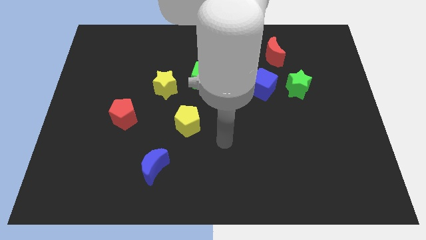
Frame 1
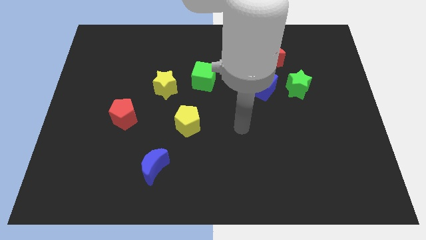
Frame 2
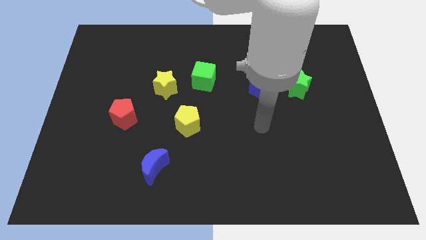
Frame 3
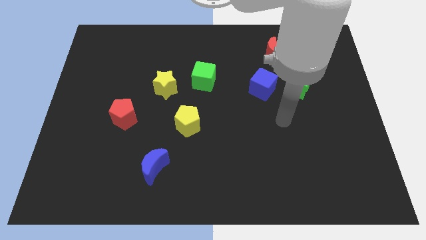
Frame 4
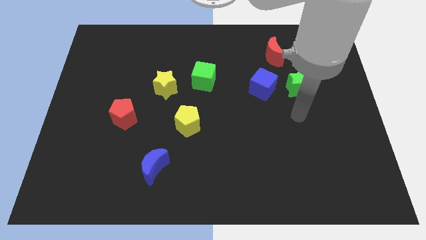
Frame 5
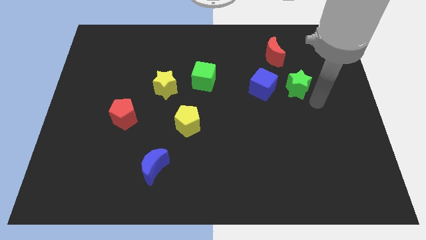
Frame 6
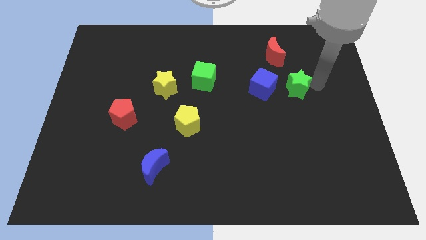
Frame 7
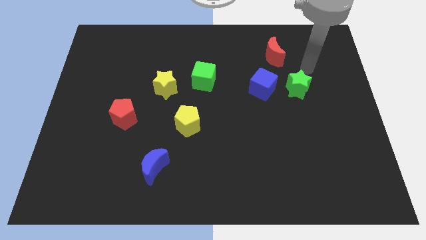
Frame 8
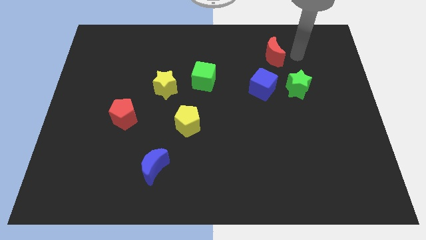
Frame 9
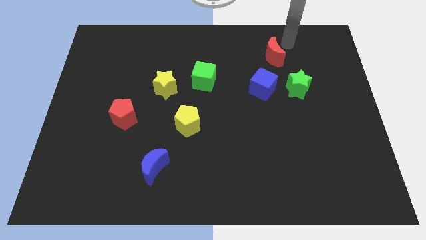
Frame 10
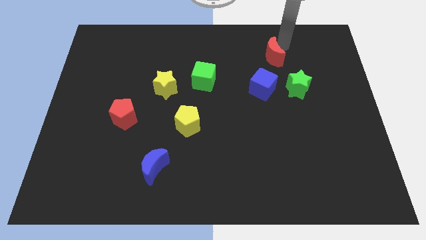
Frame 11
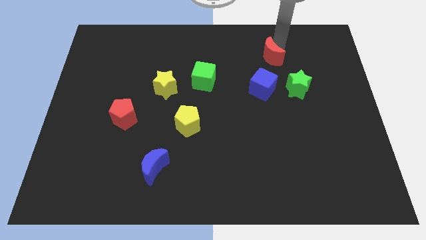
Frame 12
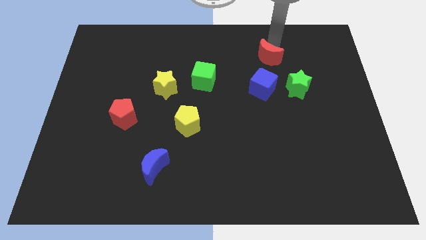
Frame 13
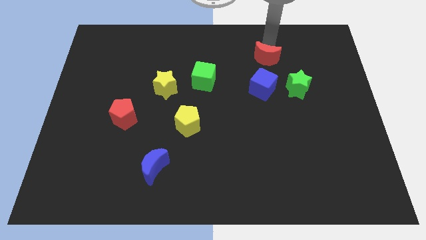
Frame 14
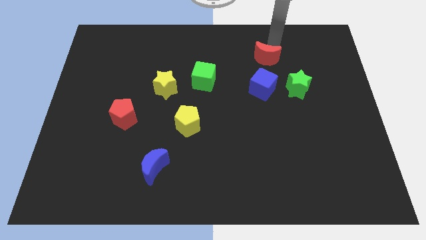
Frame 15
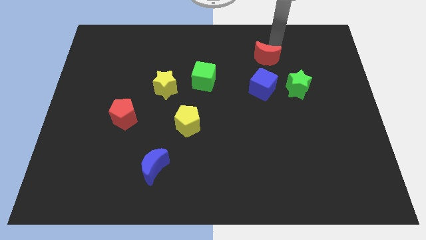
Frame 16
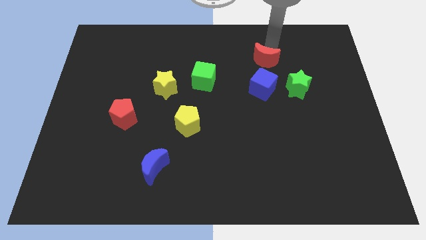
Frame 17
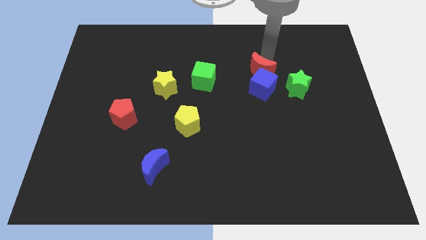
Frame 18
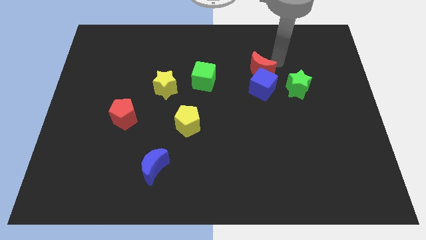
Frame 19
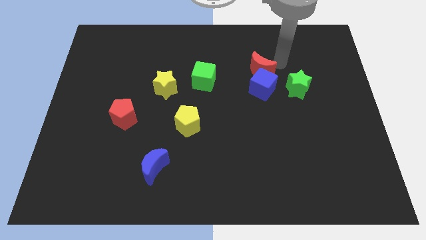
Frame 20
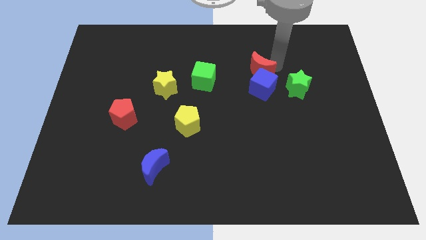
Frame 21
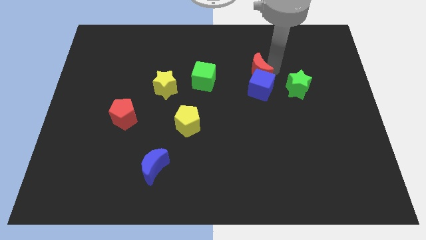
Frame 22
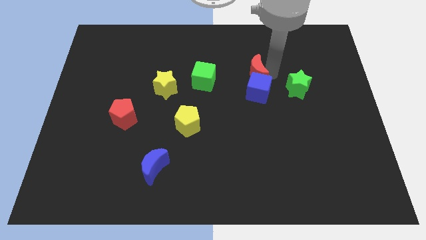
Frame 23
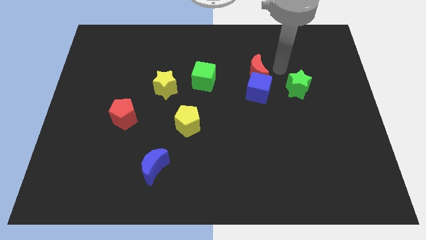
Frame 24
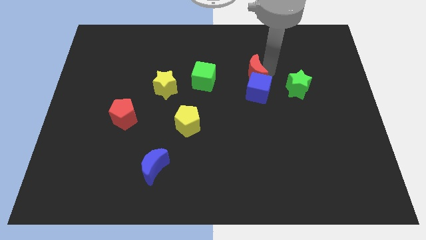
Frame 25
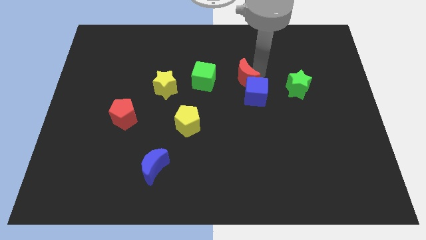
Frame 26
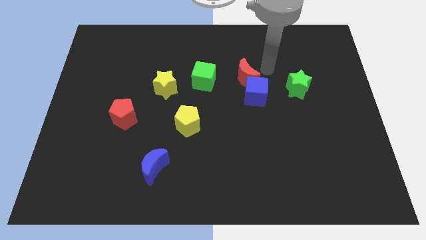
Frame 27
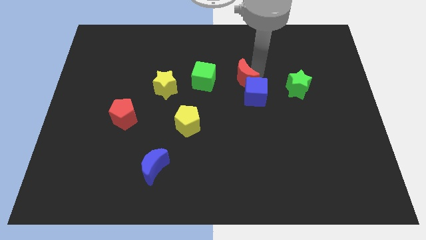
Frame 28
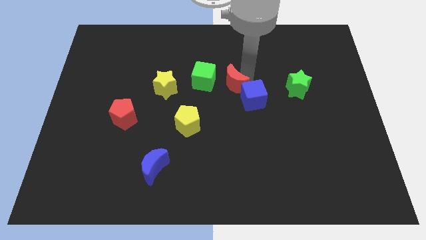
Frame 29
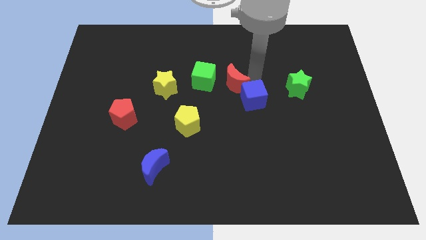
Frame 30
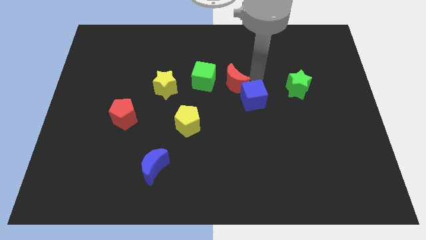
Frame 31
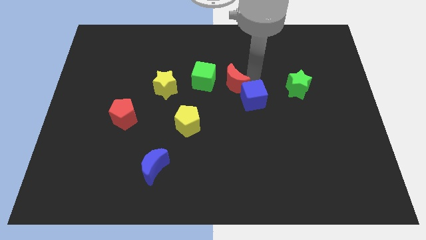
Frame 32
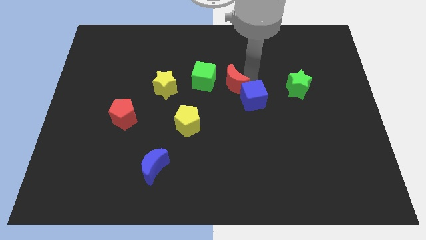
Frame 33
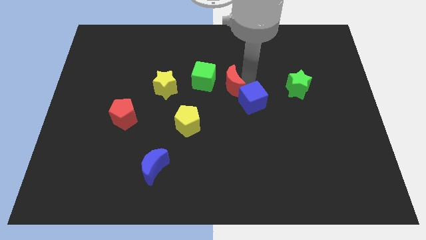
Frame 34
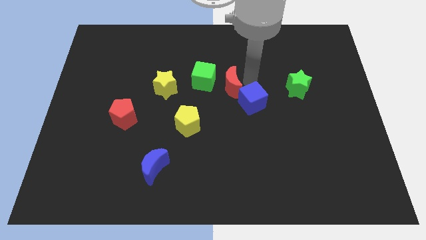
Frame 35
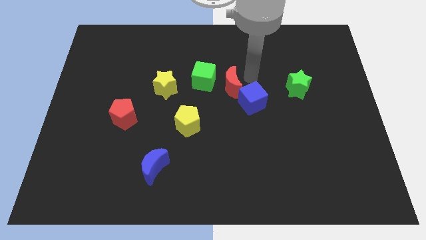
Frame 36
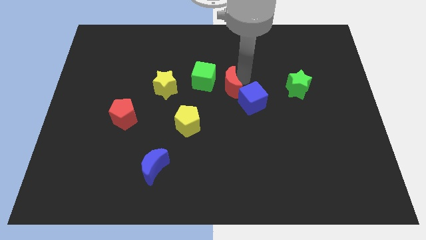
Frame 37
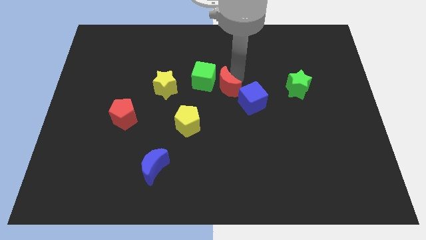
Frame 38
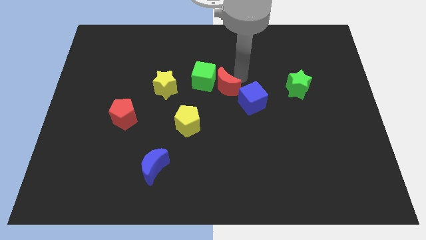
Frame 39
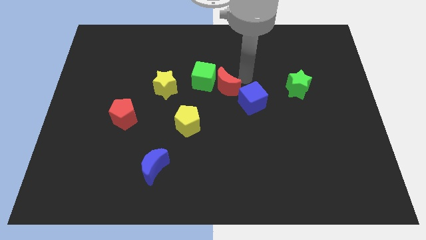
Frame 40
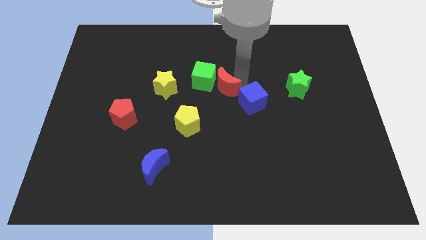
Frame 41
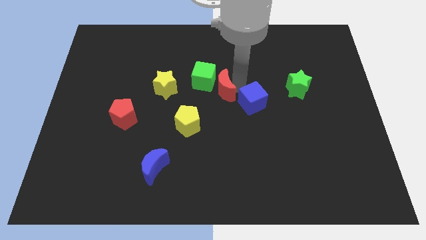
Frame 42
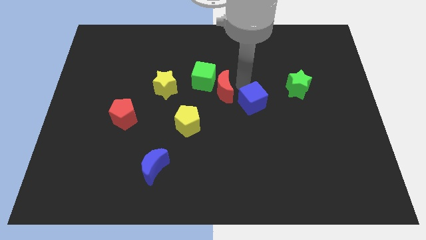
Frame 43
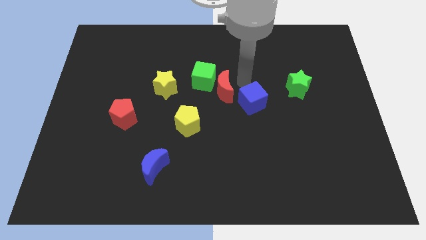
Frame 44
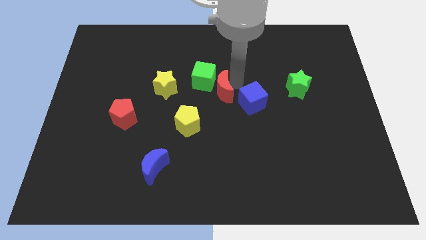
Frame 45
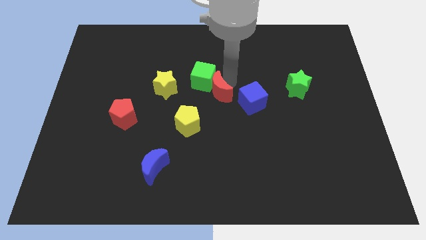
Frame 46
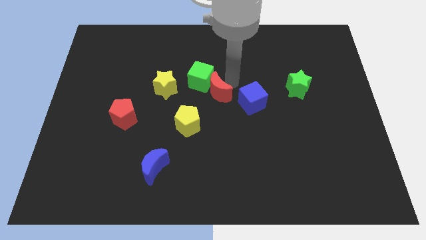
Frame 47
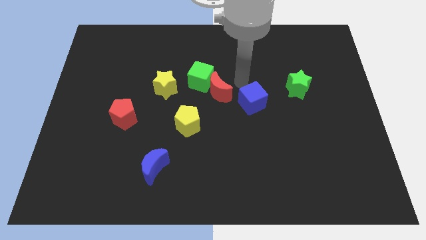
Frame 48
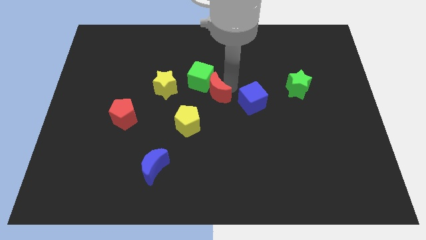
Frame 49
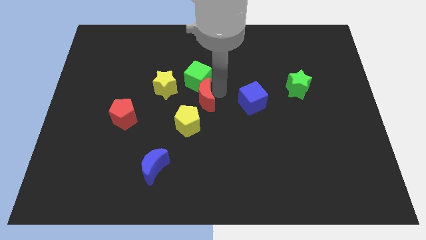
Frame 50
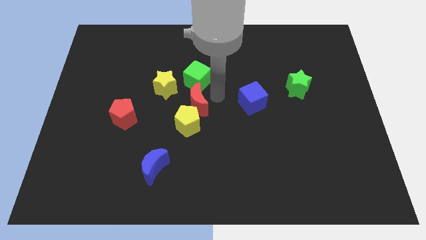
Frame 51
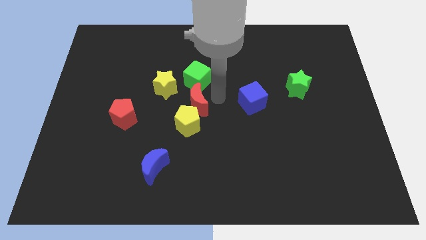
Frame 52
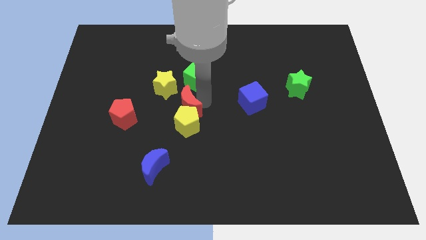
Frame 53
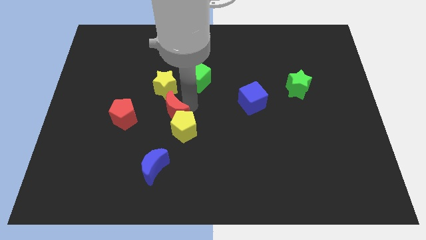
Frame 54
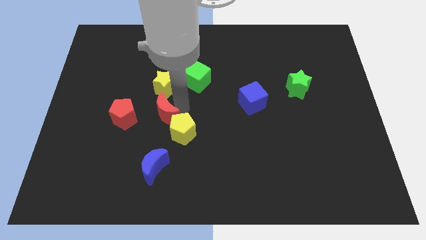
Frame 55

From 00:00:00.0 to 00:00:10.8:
slide the red moon to the left of the yellow pentagon

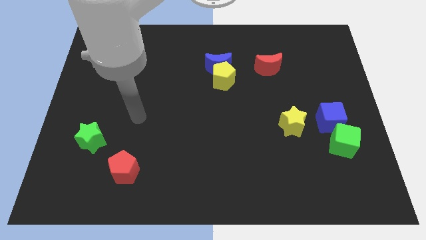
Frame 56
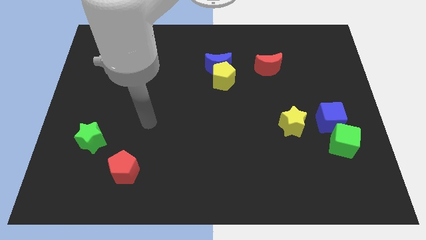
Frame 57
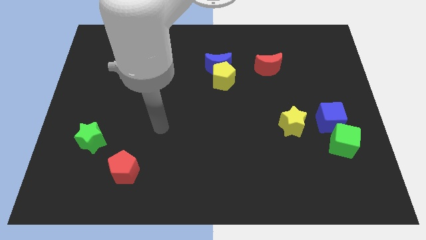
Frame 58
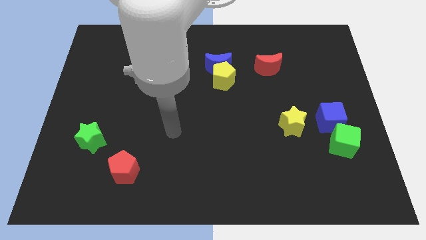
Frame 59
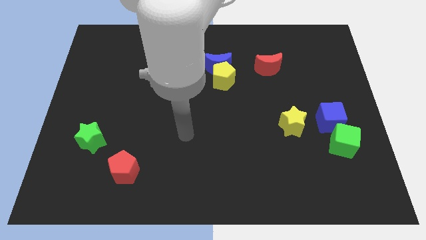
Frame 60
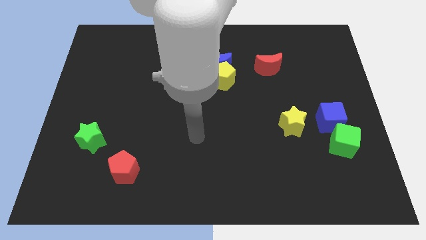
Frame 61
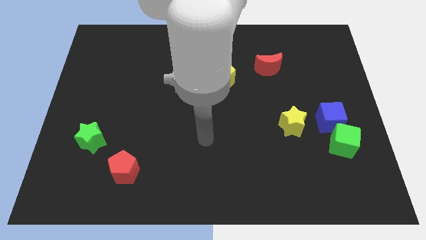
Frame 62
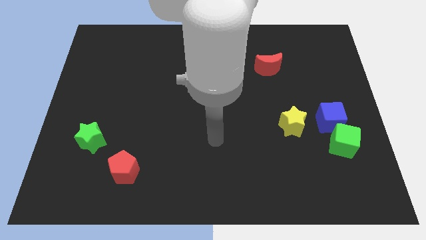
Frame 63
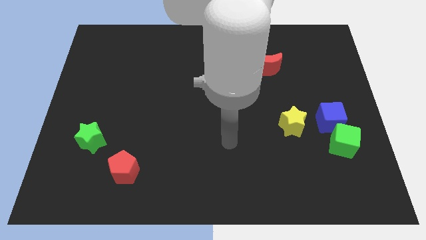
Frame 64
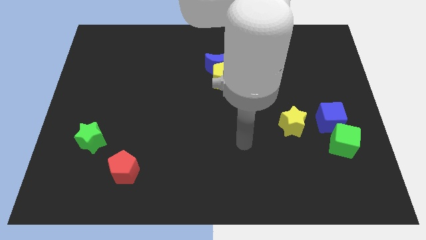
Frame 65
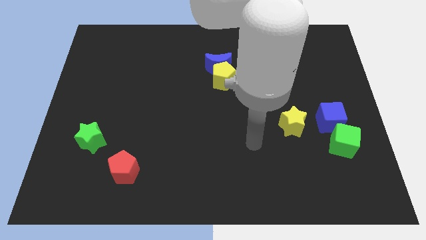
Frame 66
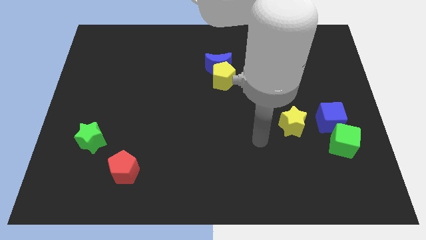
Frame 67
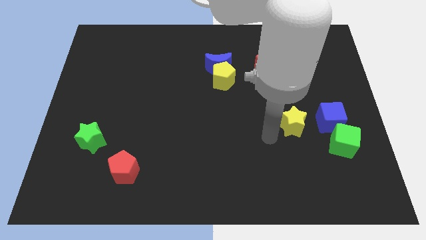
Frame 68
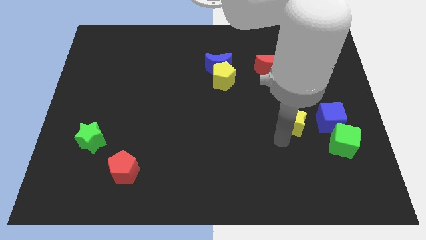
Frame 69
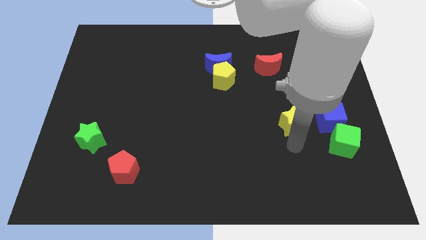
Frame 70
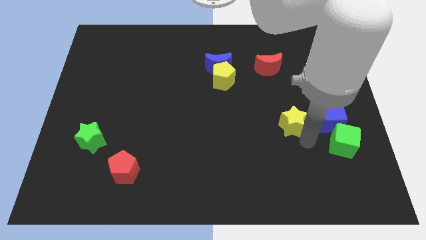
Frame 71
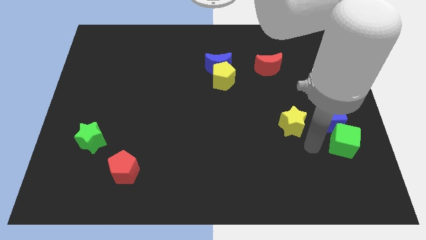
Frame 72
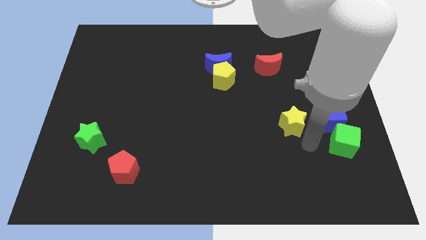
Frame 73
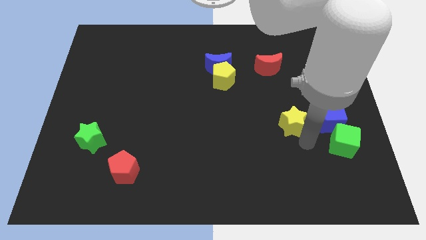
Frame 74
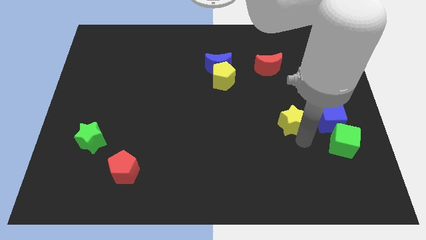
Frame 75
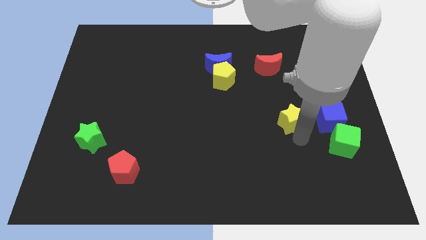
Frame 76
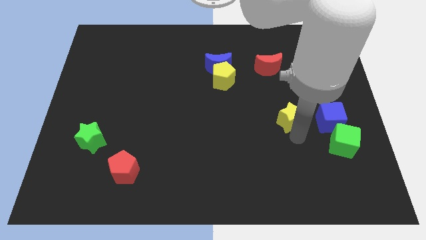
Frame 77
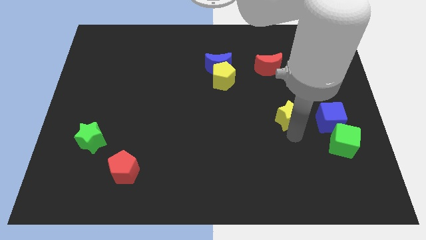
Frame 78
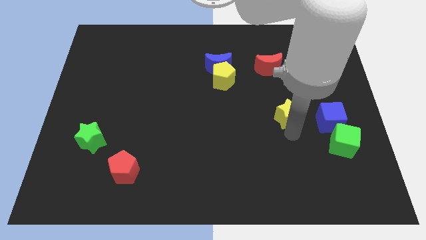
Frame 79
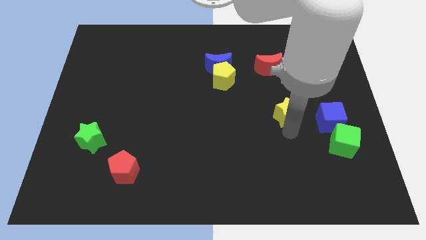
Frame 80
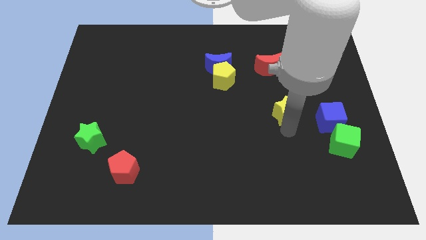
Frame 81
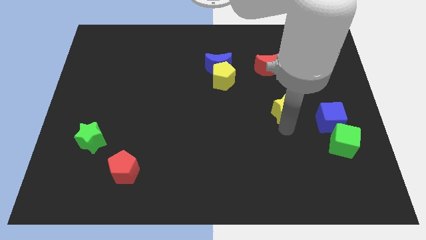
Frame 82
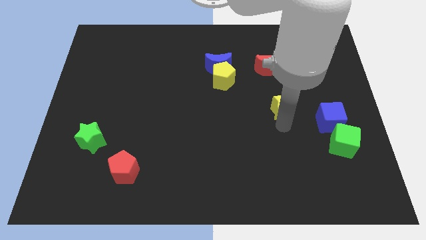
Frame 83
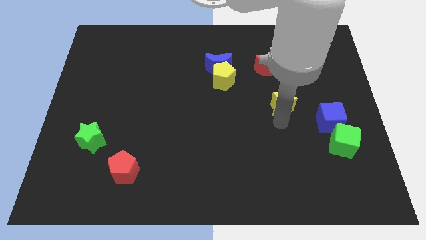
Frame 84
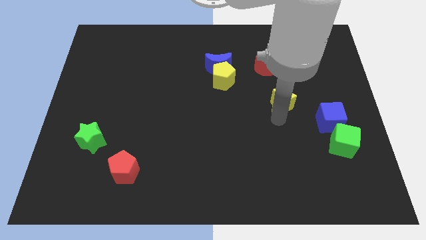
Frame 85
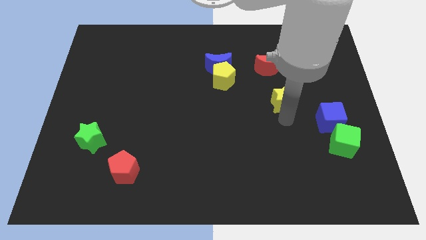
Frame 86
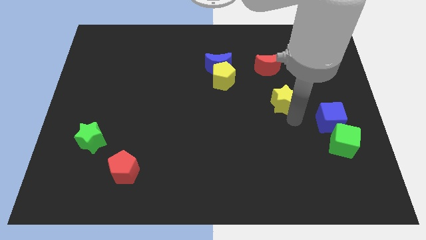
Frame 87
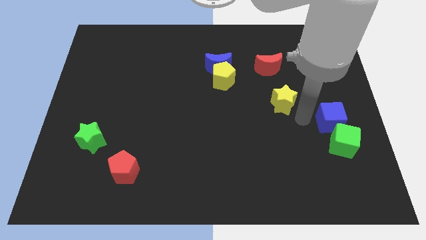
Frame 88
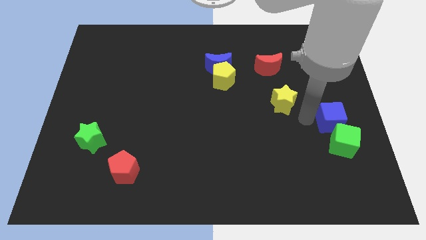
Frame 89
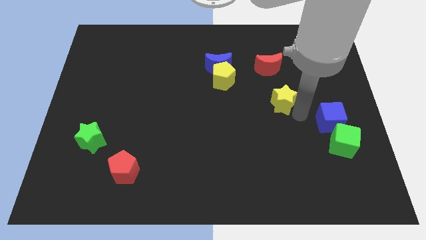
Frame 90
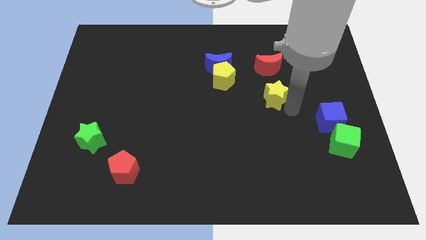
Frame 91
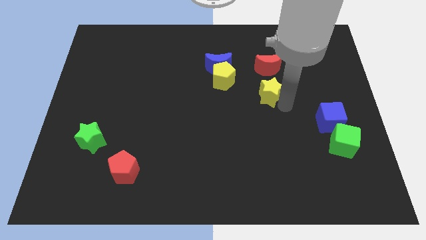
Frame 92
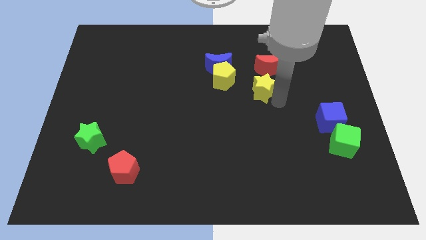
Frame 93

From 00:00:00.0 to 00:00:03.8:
put the yellow star diagonally down and to the left of the red moon
